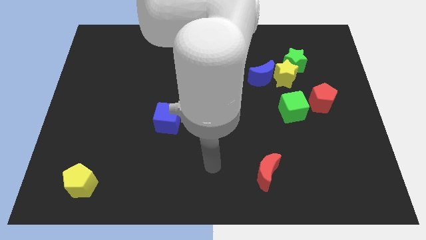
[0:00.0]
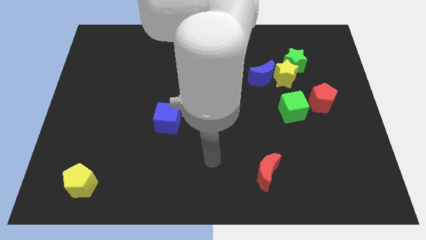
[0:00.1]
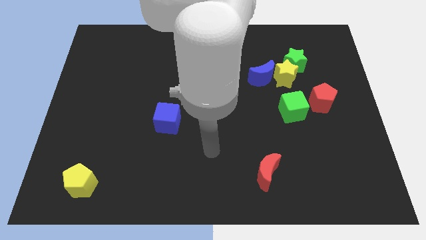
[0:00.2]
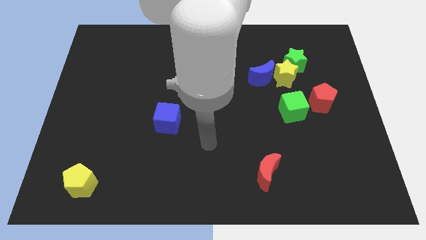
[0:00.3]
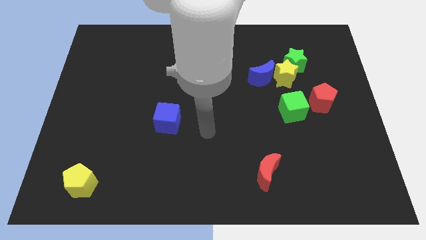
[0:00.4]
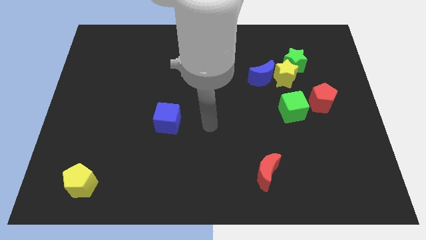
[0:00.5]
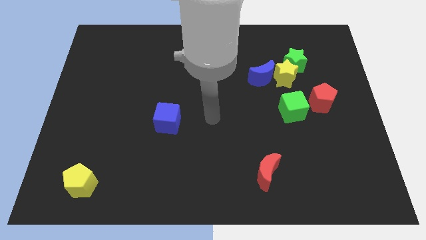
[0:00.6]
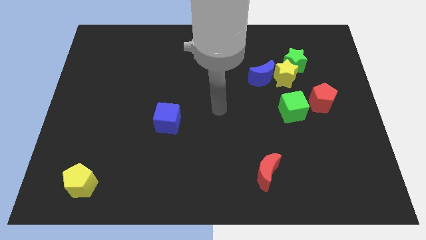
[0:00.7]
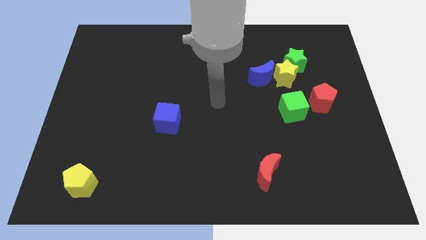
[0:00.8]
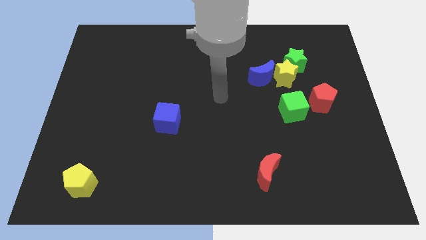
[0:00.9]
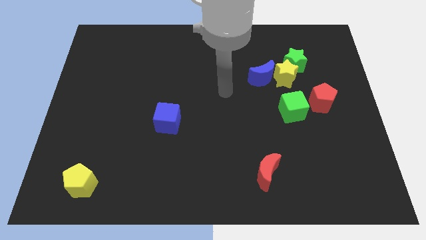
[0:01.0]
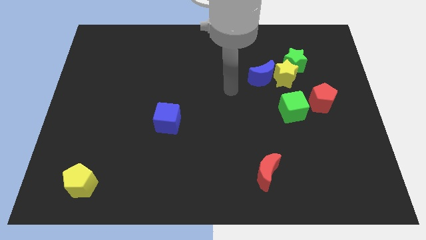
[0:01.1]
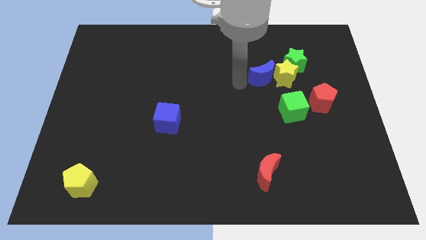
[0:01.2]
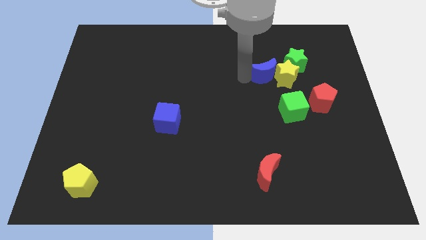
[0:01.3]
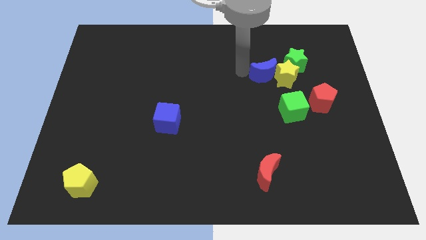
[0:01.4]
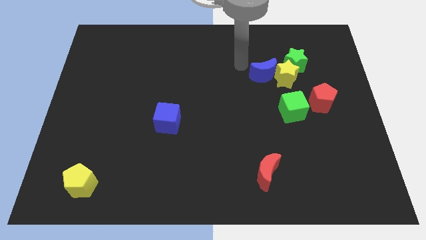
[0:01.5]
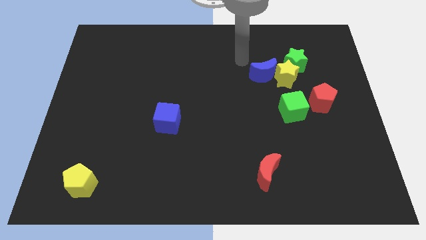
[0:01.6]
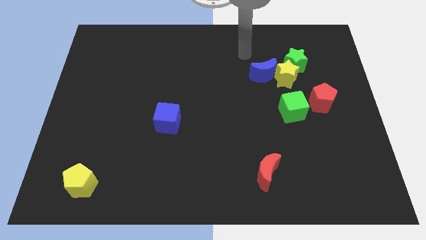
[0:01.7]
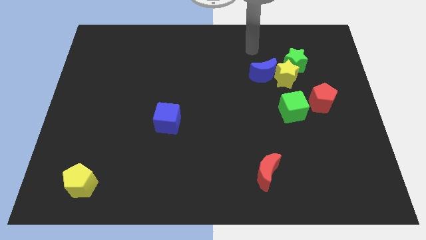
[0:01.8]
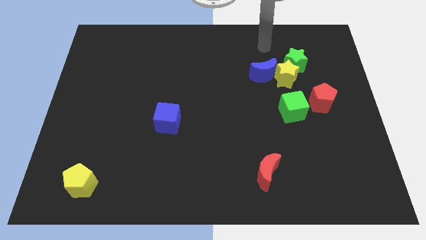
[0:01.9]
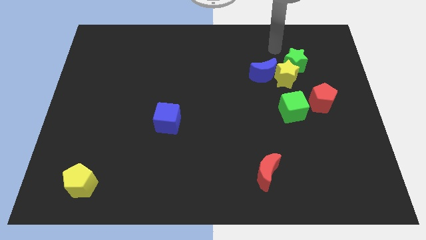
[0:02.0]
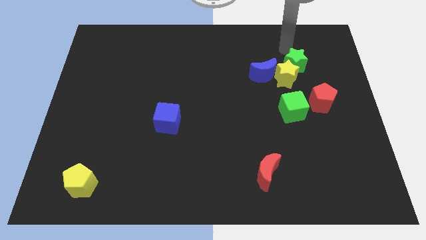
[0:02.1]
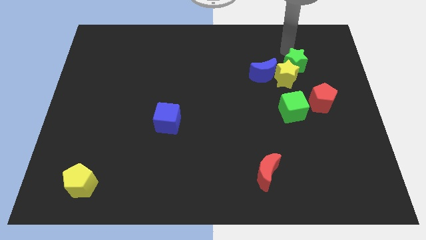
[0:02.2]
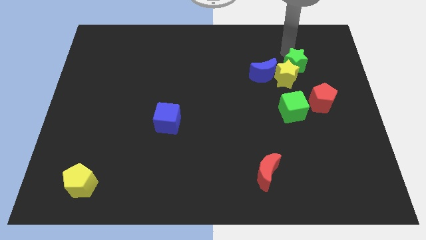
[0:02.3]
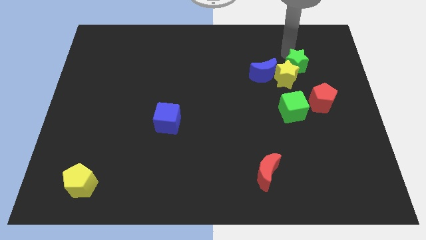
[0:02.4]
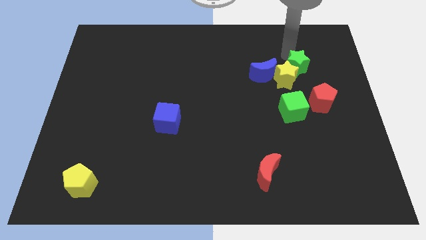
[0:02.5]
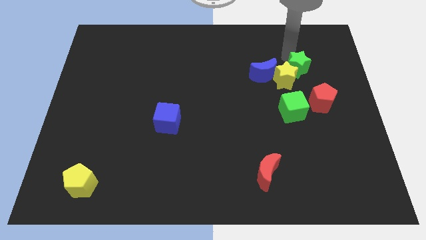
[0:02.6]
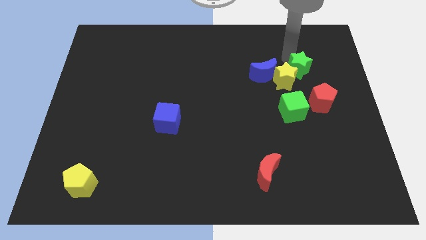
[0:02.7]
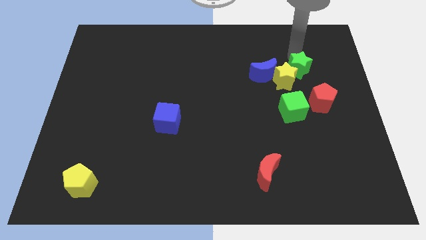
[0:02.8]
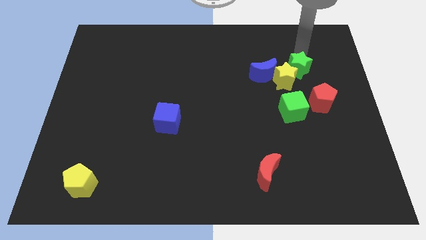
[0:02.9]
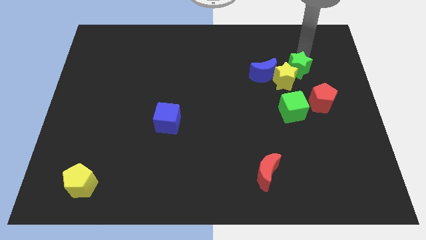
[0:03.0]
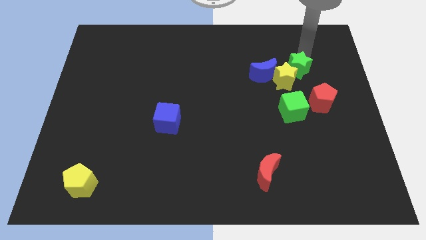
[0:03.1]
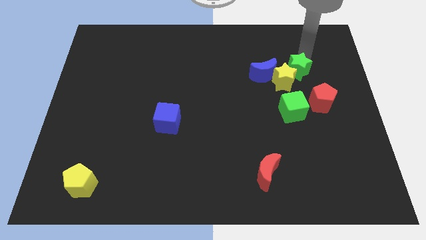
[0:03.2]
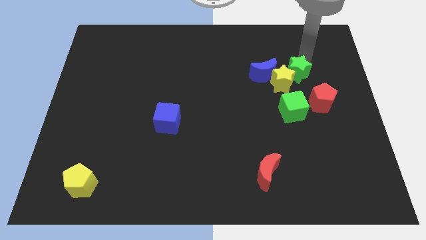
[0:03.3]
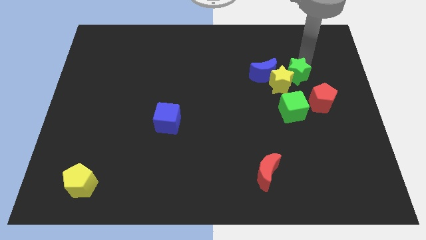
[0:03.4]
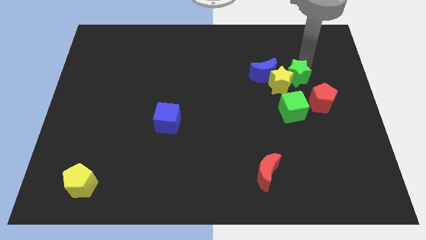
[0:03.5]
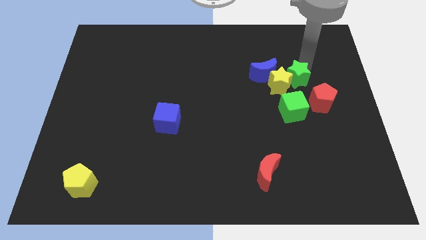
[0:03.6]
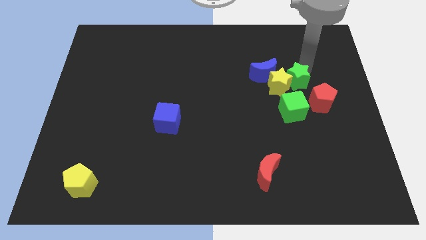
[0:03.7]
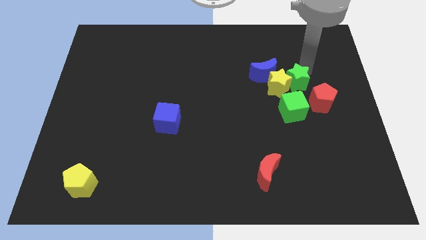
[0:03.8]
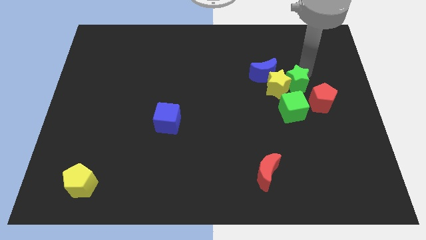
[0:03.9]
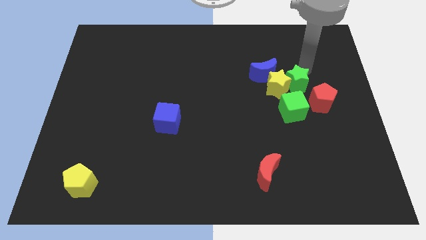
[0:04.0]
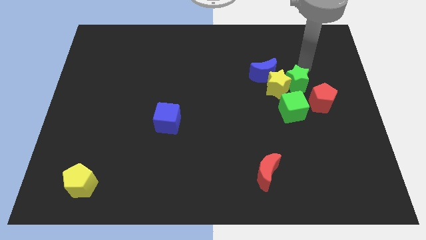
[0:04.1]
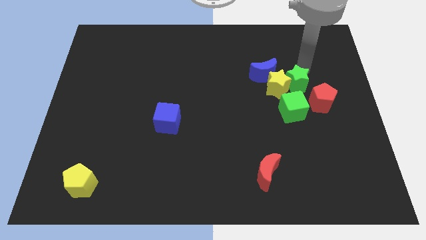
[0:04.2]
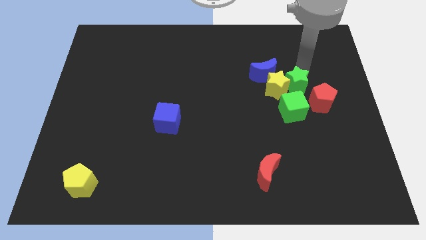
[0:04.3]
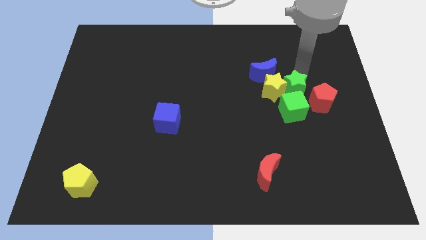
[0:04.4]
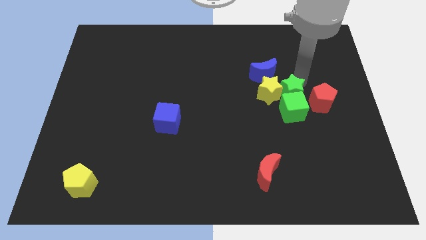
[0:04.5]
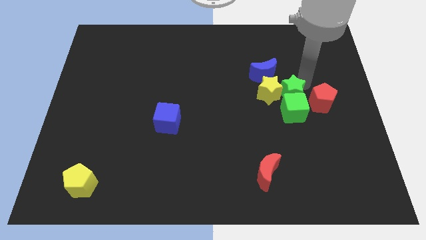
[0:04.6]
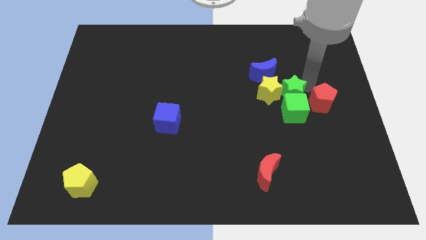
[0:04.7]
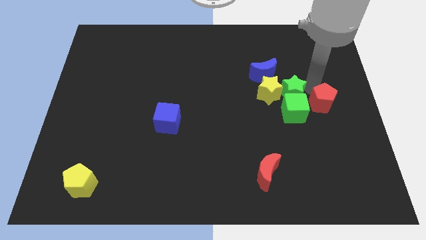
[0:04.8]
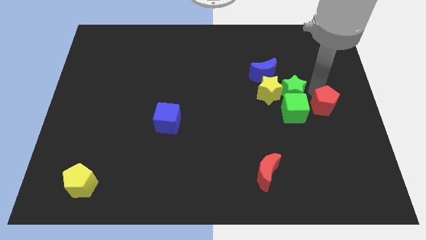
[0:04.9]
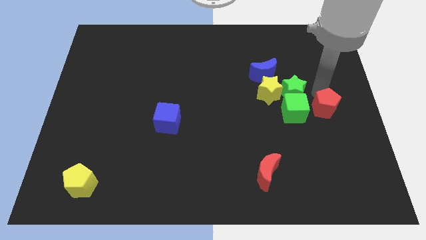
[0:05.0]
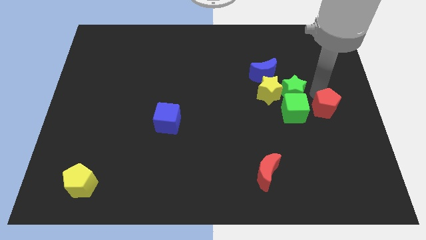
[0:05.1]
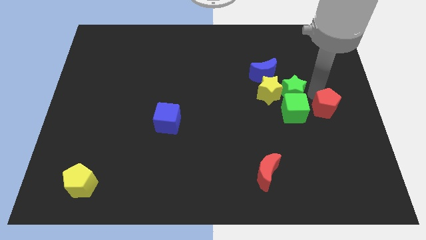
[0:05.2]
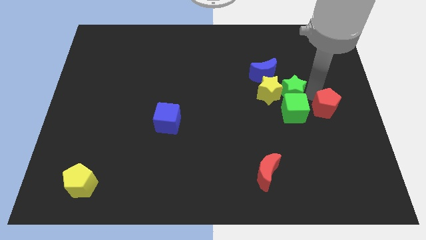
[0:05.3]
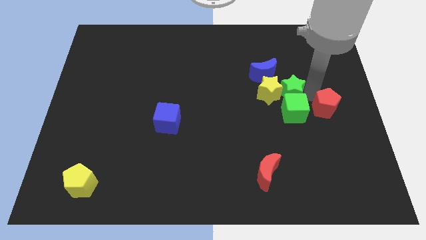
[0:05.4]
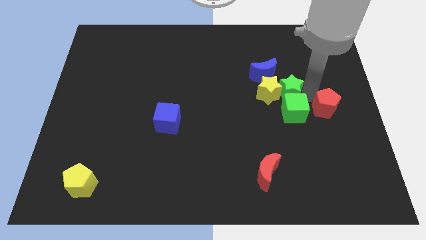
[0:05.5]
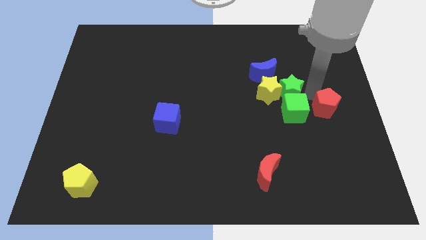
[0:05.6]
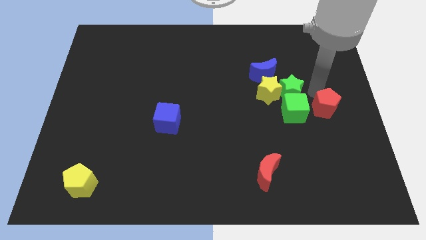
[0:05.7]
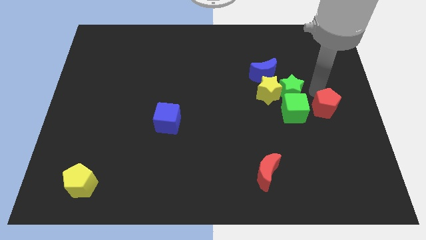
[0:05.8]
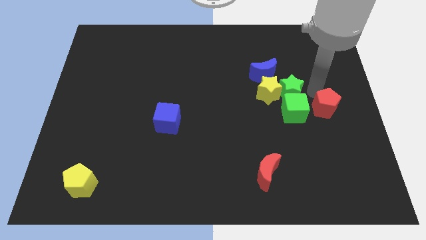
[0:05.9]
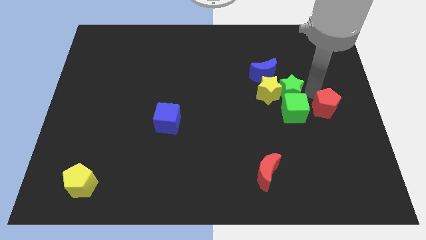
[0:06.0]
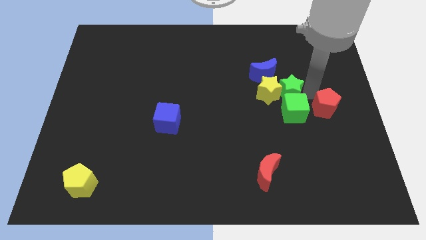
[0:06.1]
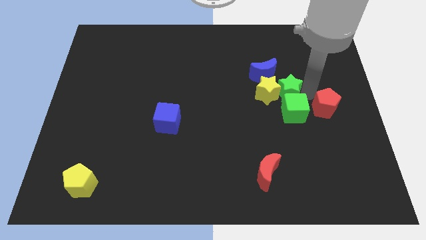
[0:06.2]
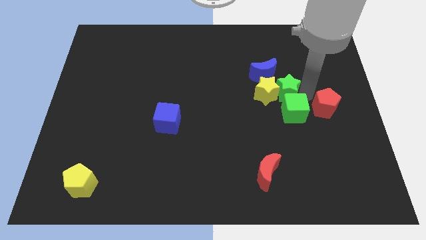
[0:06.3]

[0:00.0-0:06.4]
slide the green star below the blue moon

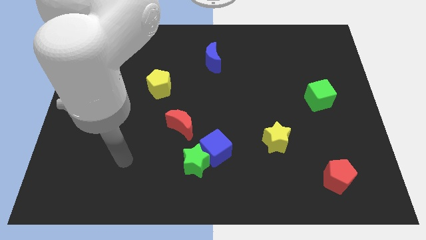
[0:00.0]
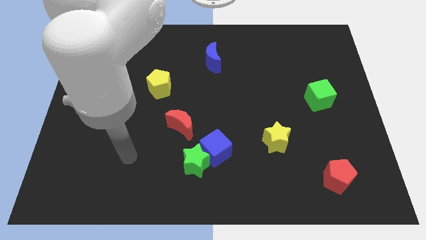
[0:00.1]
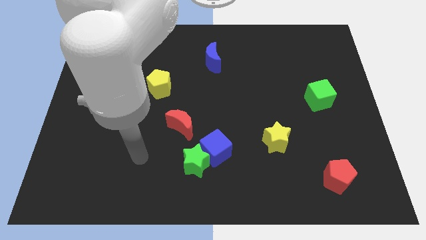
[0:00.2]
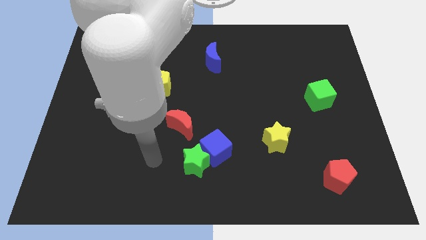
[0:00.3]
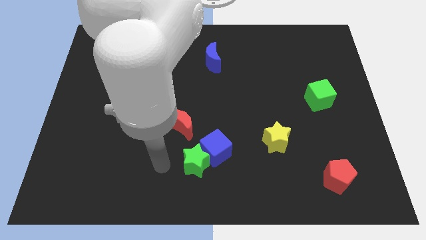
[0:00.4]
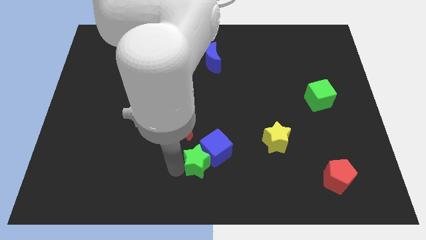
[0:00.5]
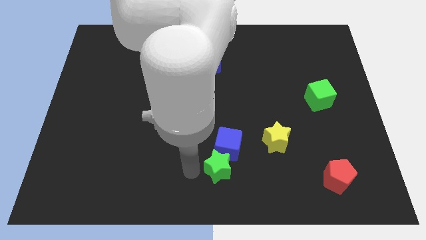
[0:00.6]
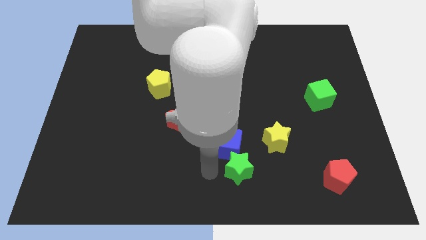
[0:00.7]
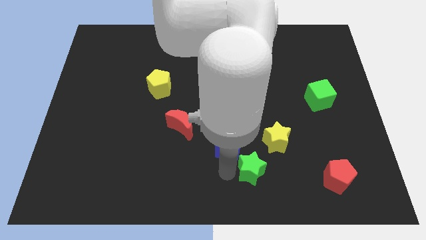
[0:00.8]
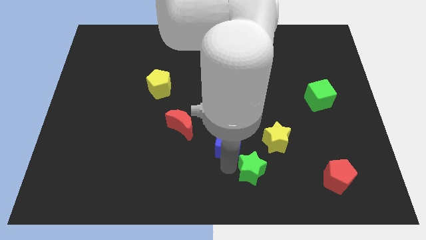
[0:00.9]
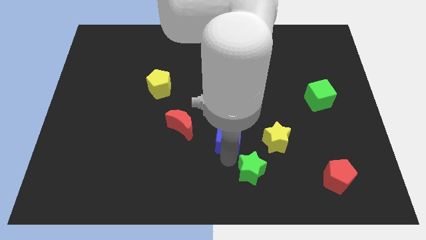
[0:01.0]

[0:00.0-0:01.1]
move the blue cube to the right of the red moon

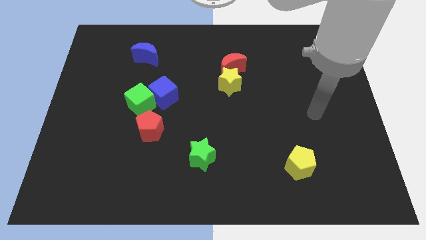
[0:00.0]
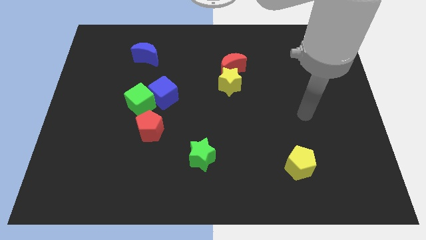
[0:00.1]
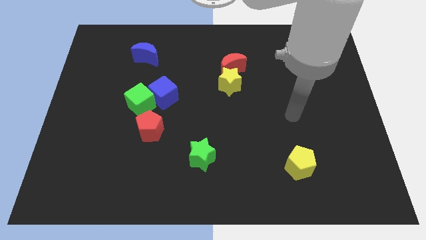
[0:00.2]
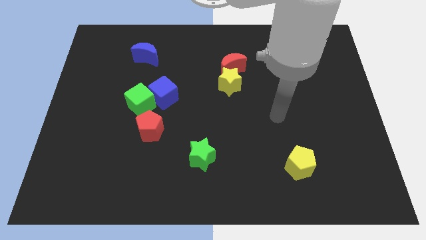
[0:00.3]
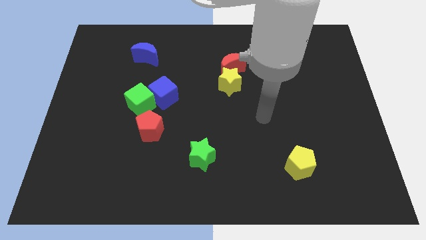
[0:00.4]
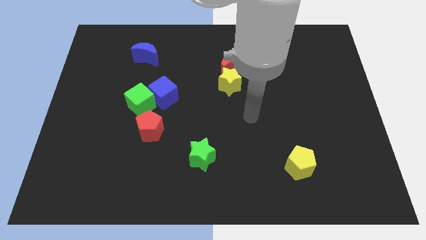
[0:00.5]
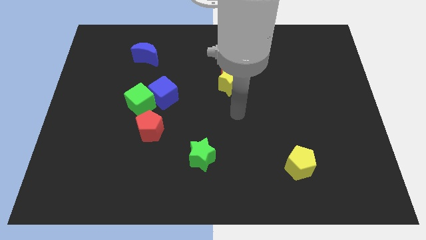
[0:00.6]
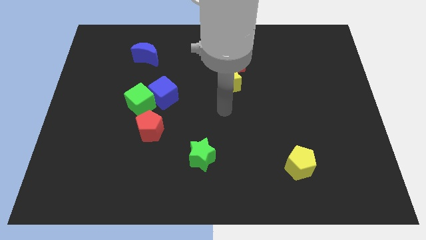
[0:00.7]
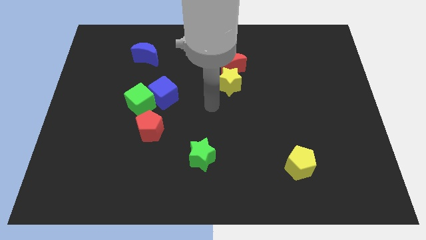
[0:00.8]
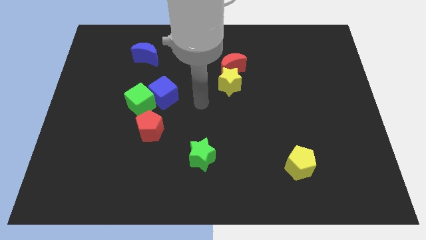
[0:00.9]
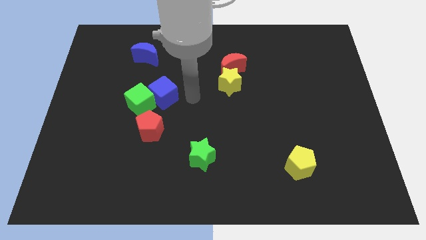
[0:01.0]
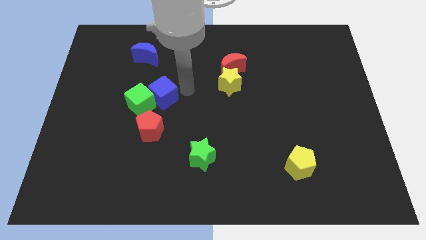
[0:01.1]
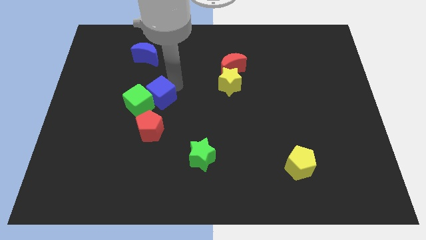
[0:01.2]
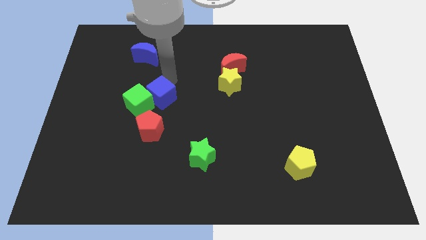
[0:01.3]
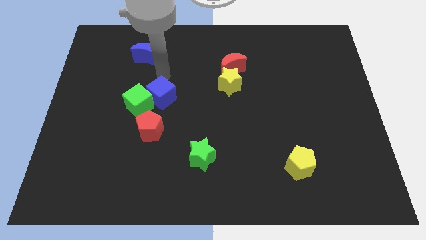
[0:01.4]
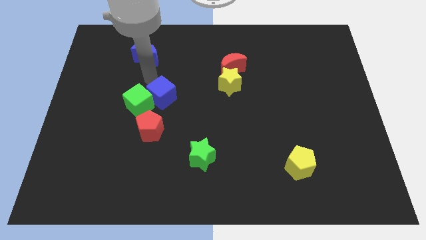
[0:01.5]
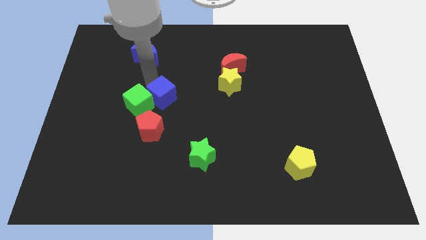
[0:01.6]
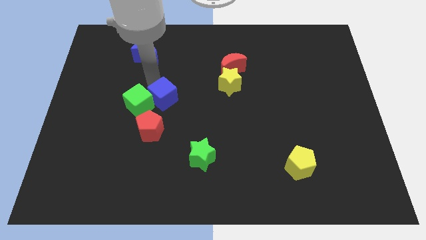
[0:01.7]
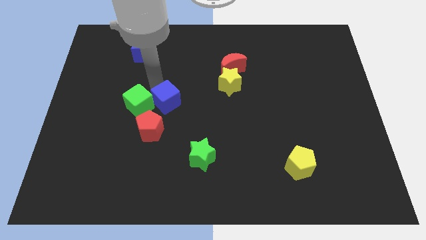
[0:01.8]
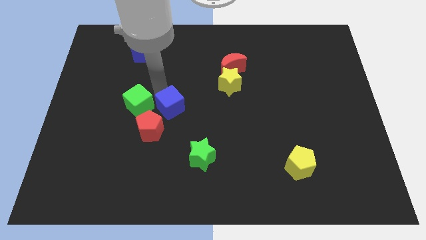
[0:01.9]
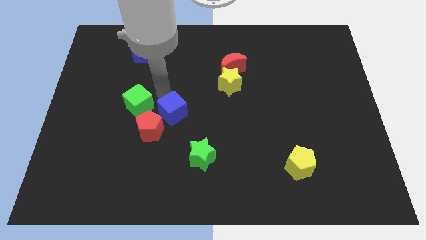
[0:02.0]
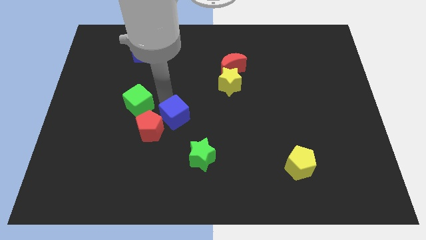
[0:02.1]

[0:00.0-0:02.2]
slide the blue cube to the right of the red pentagon
